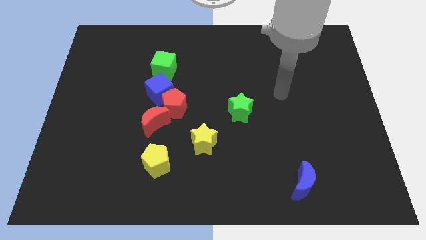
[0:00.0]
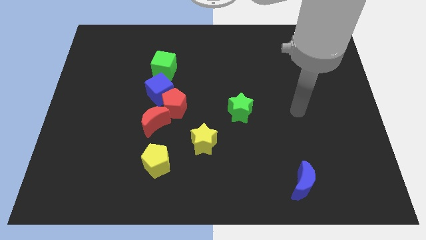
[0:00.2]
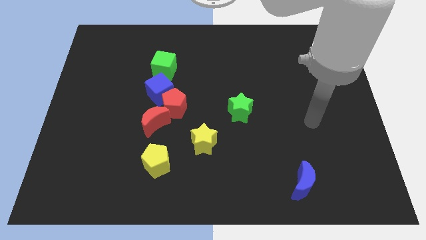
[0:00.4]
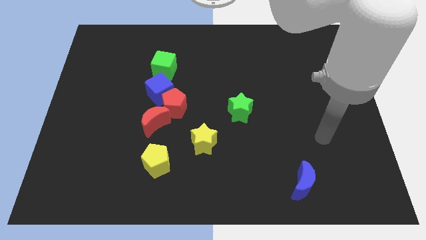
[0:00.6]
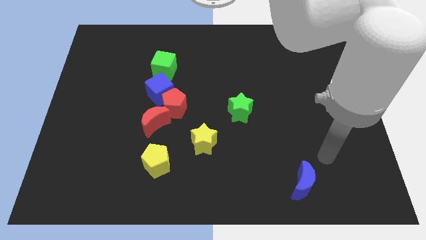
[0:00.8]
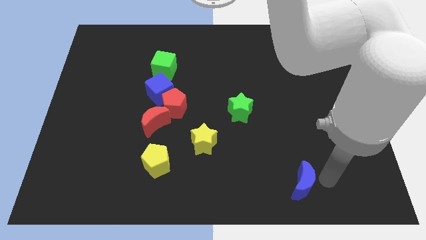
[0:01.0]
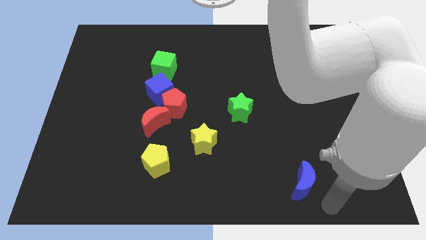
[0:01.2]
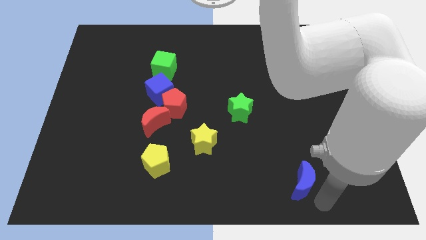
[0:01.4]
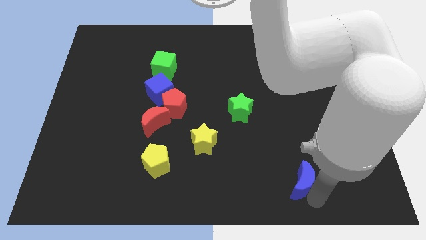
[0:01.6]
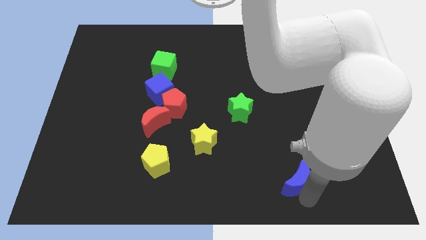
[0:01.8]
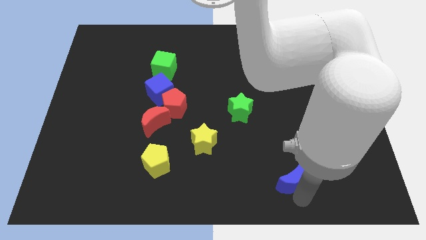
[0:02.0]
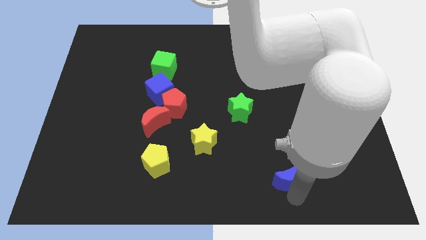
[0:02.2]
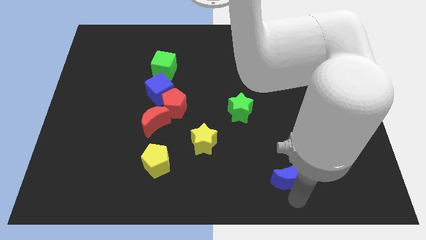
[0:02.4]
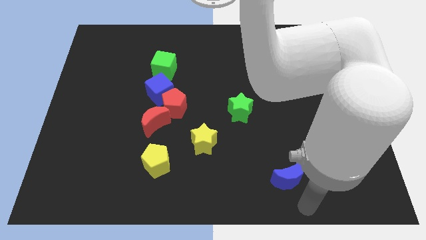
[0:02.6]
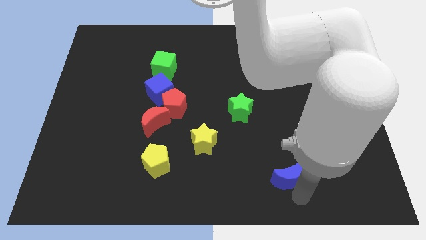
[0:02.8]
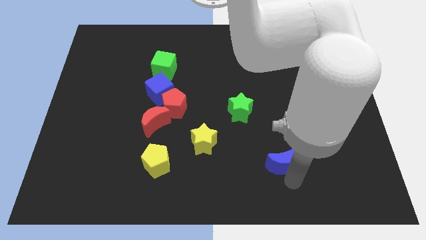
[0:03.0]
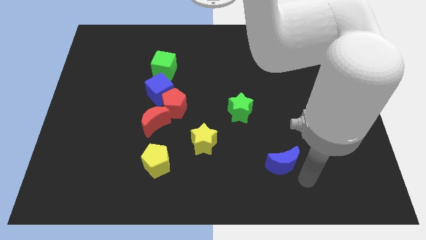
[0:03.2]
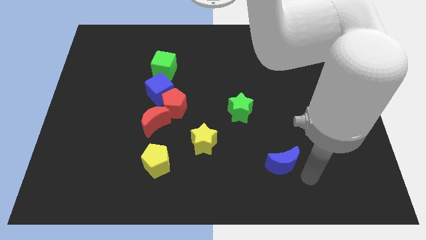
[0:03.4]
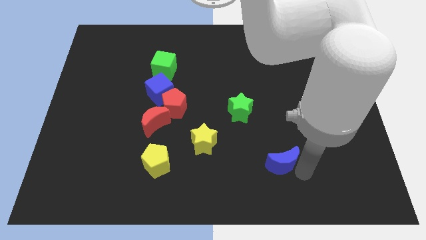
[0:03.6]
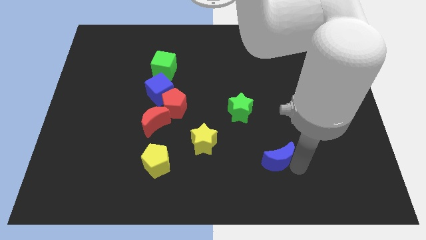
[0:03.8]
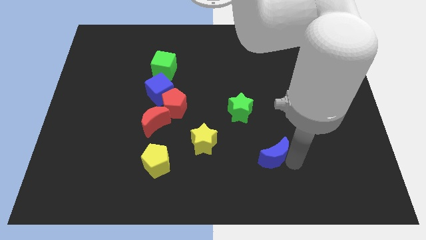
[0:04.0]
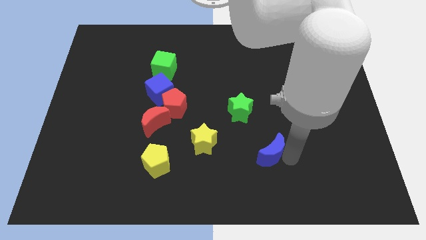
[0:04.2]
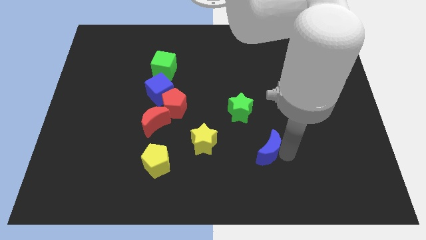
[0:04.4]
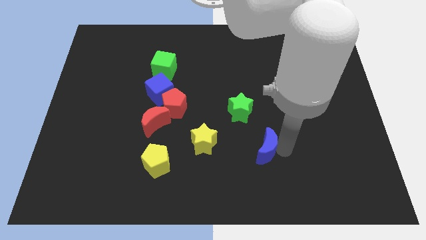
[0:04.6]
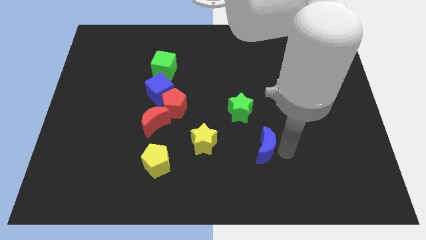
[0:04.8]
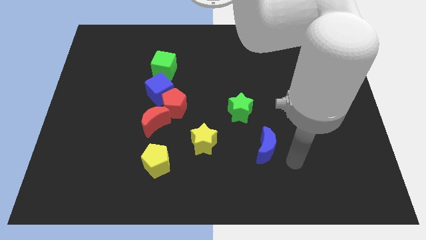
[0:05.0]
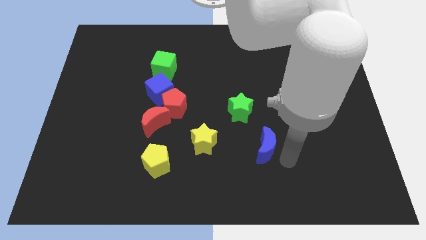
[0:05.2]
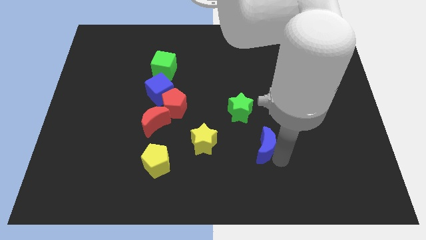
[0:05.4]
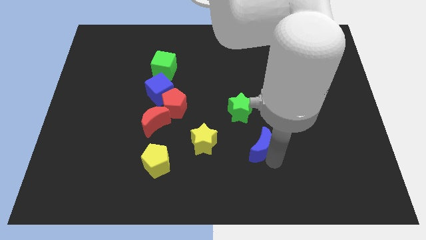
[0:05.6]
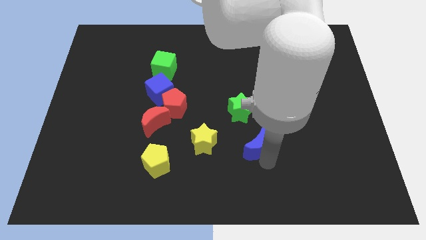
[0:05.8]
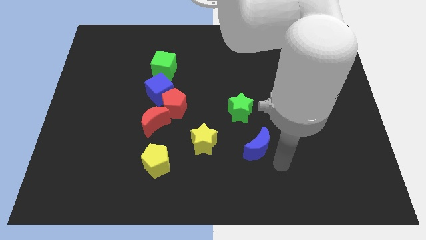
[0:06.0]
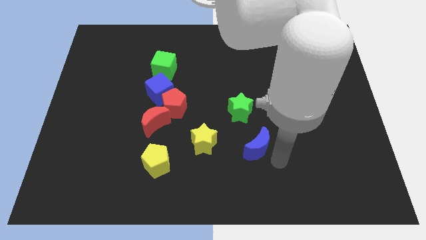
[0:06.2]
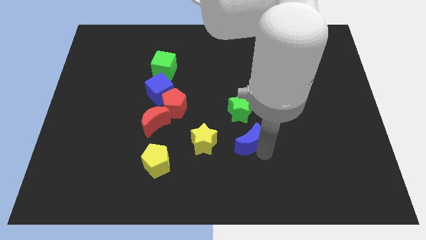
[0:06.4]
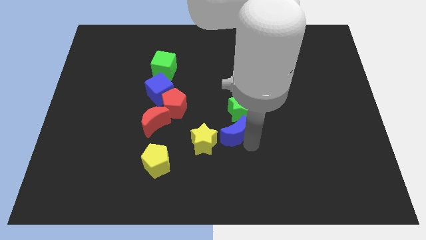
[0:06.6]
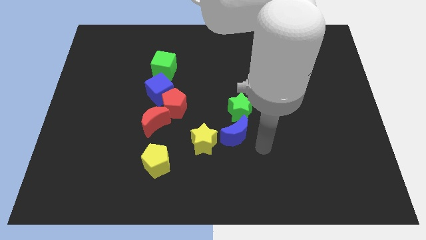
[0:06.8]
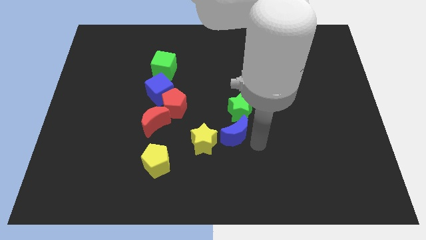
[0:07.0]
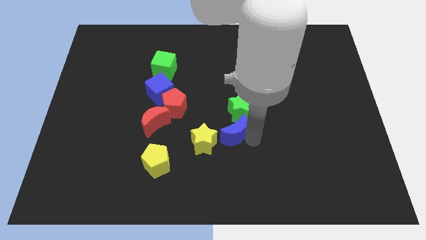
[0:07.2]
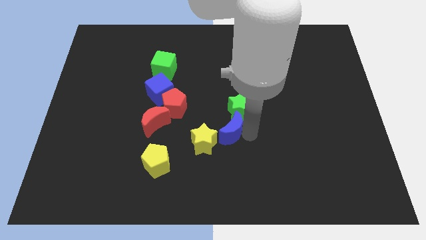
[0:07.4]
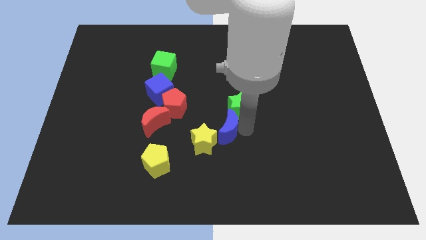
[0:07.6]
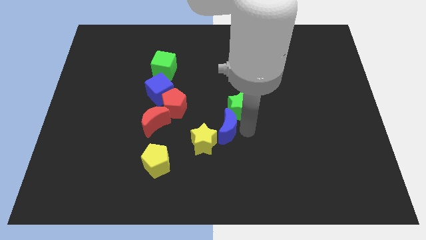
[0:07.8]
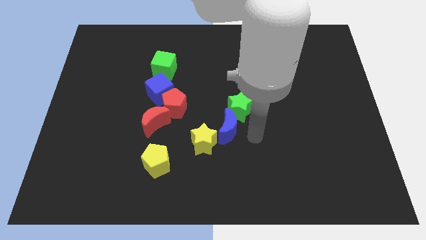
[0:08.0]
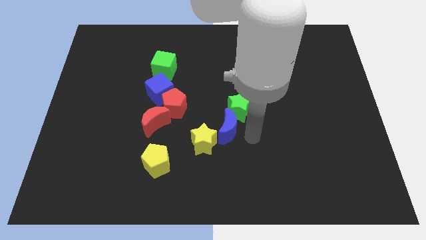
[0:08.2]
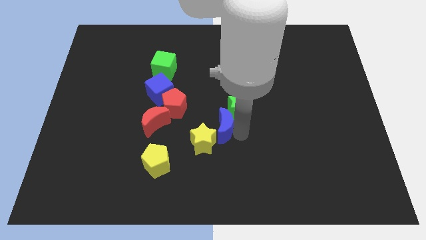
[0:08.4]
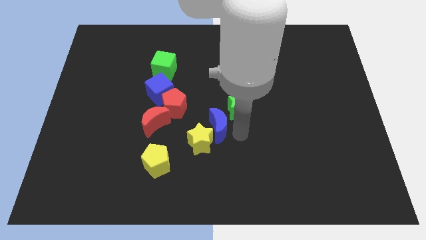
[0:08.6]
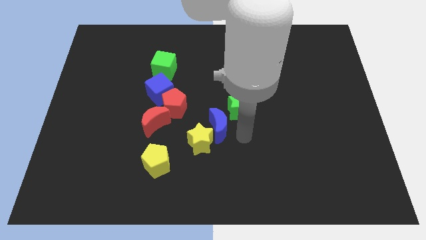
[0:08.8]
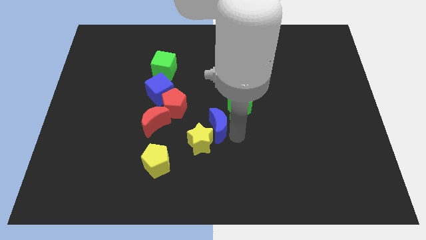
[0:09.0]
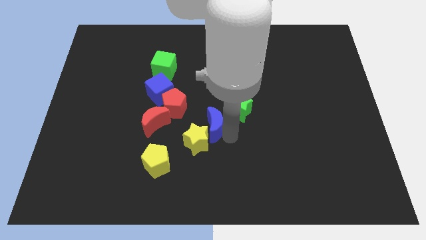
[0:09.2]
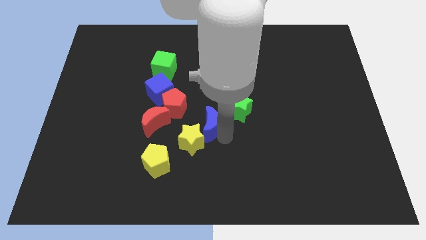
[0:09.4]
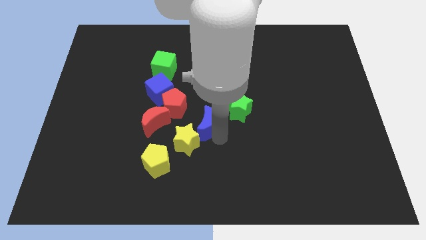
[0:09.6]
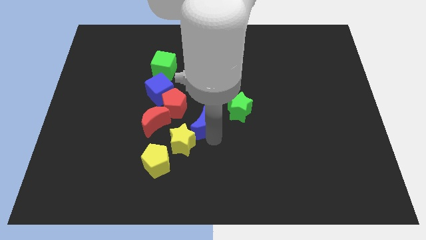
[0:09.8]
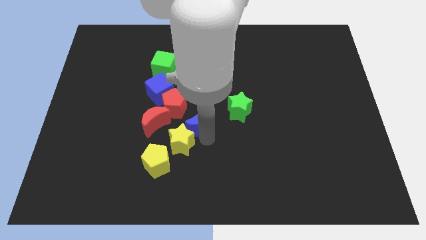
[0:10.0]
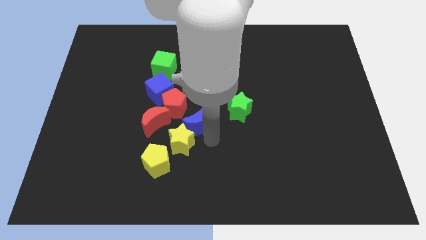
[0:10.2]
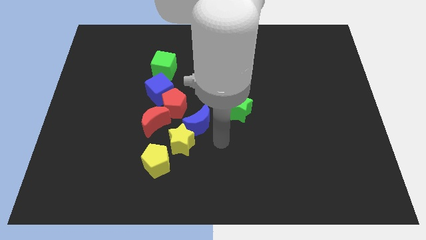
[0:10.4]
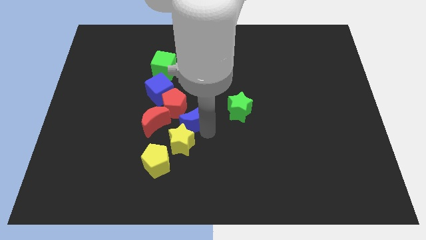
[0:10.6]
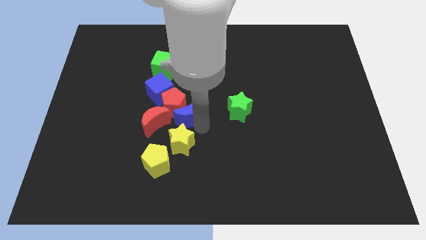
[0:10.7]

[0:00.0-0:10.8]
push the blue moon next to the red pentagon

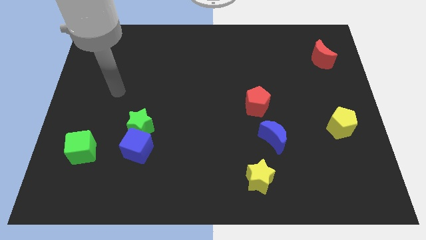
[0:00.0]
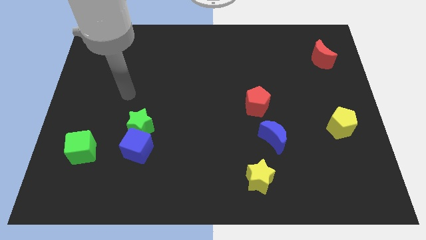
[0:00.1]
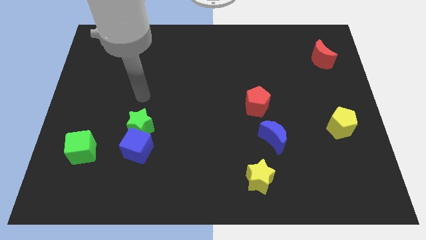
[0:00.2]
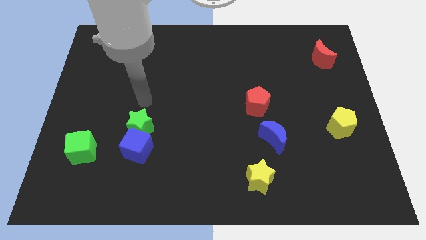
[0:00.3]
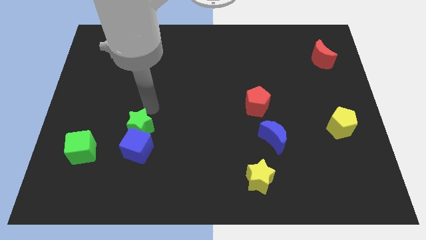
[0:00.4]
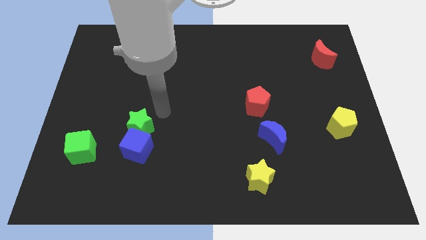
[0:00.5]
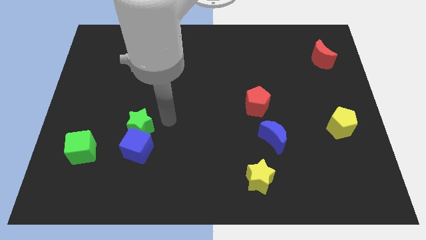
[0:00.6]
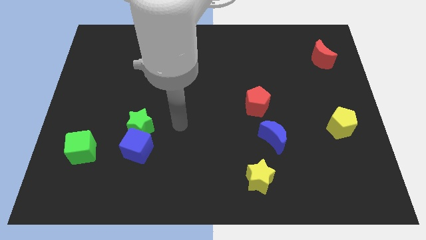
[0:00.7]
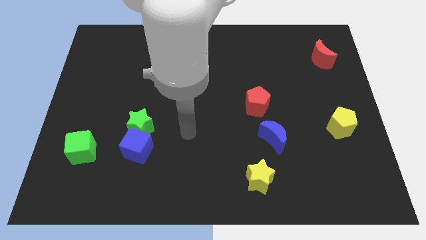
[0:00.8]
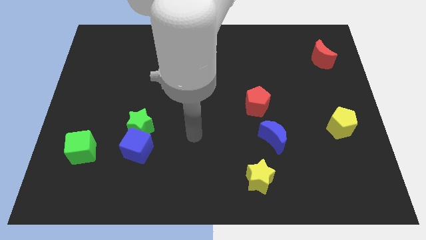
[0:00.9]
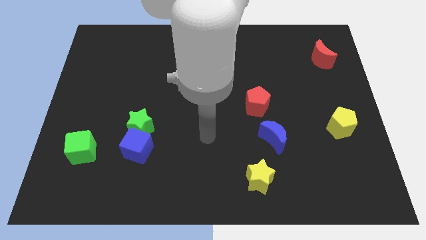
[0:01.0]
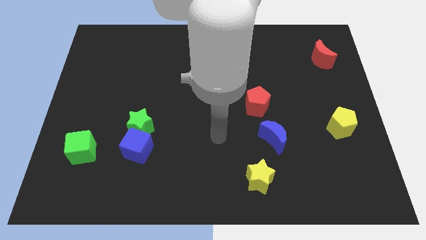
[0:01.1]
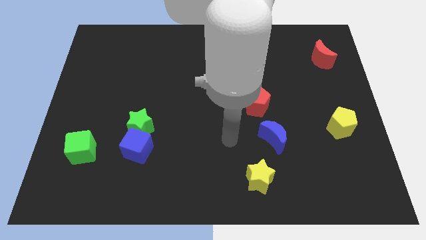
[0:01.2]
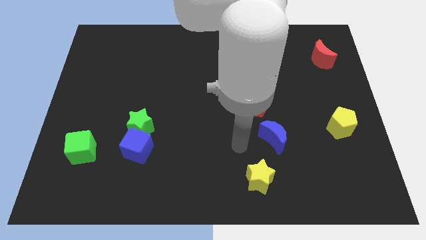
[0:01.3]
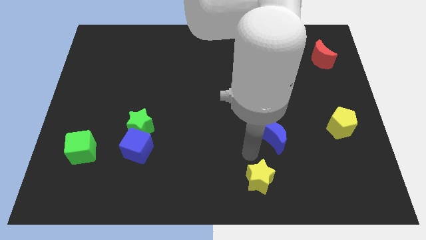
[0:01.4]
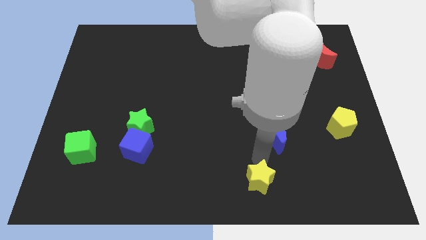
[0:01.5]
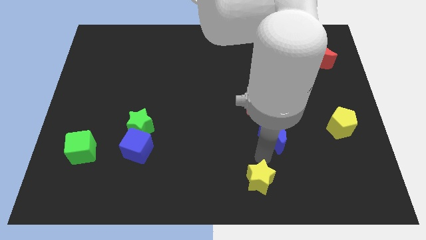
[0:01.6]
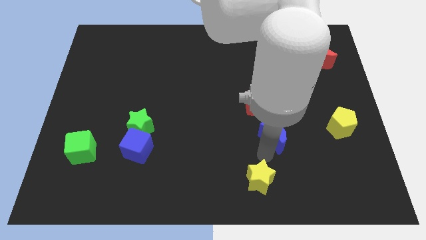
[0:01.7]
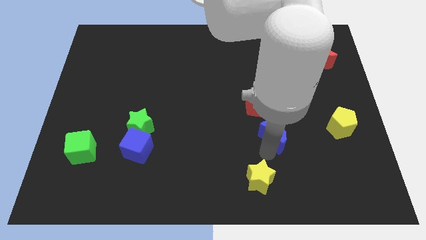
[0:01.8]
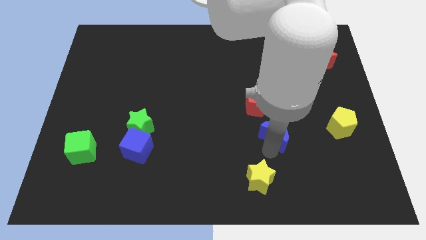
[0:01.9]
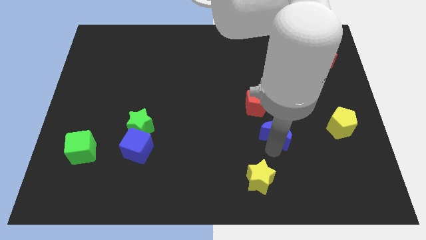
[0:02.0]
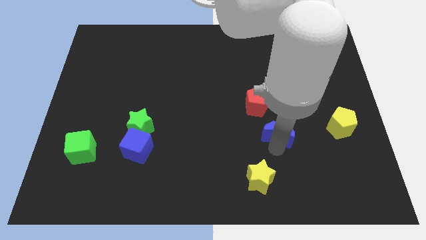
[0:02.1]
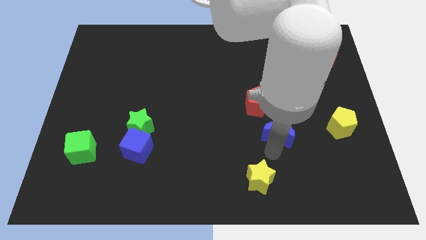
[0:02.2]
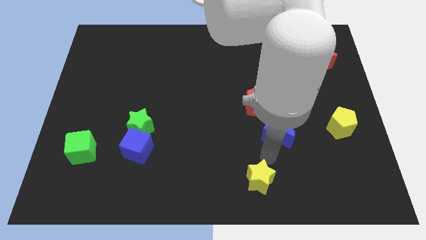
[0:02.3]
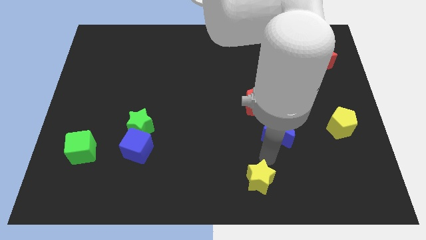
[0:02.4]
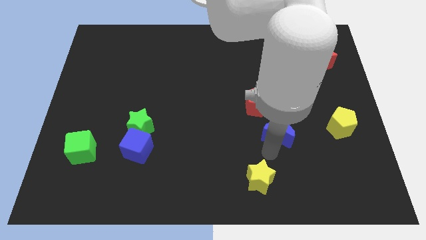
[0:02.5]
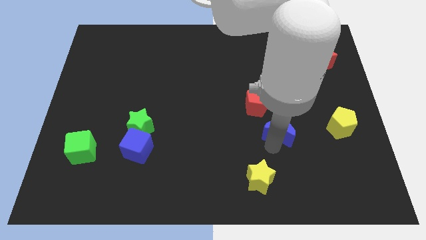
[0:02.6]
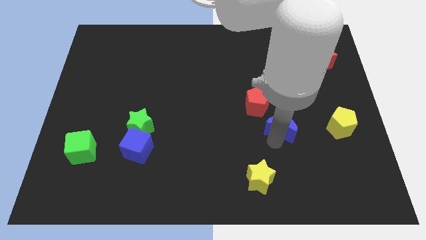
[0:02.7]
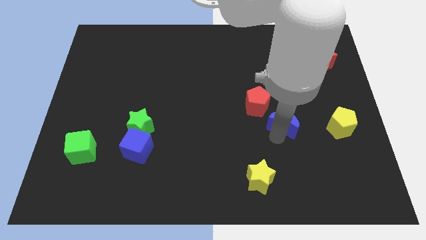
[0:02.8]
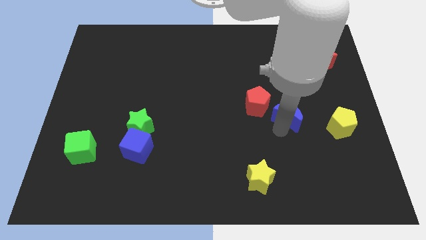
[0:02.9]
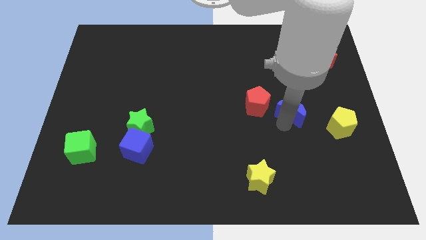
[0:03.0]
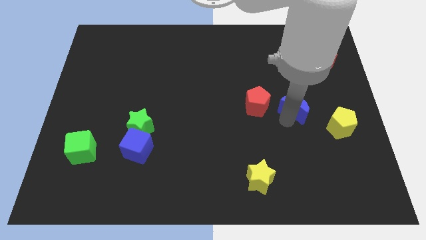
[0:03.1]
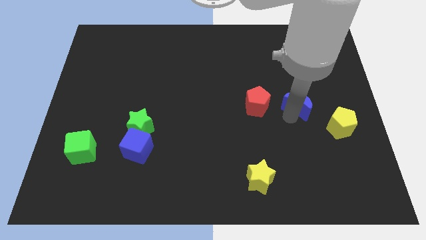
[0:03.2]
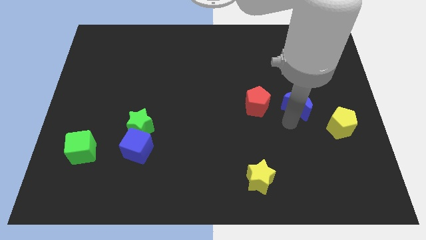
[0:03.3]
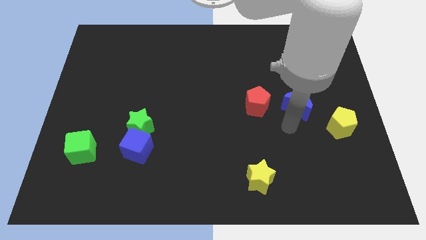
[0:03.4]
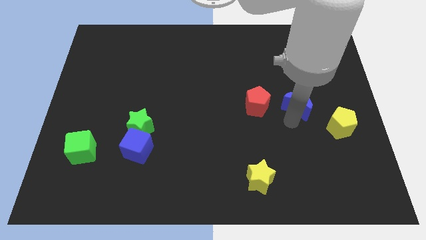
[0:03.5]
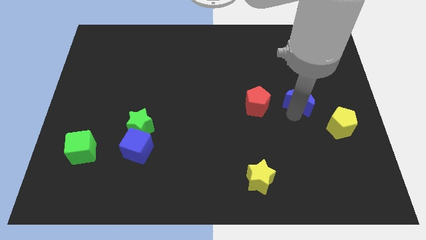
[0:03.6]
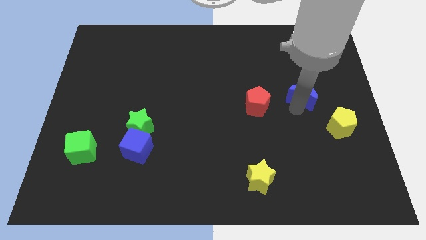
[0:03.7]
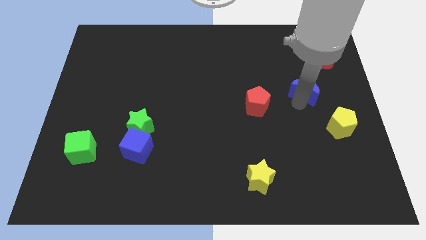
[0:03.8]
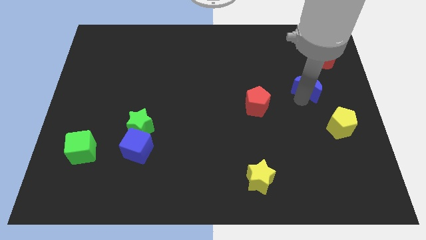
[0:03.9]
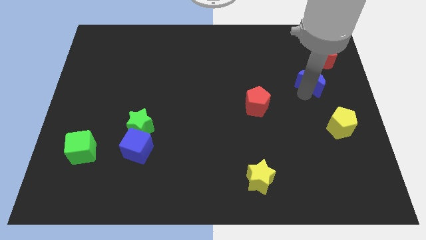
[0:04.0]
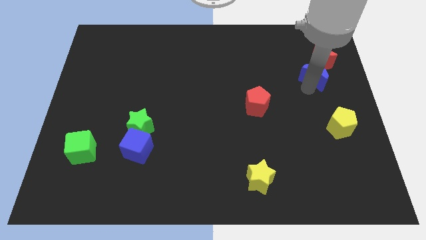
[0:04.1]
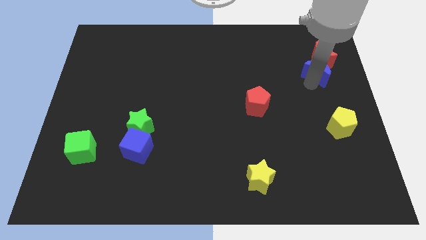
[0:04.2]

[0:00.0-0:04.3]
push the blue moon close to the red moon
